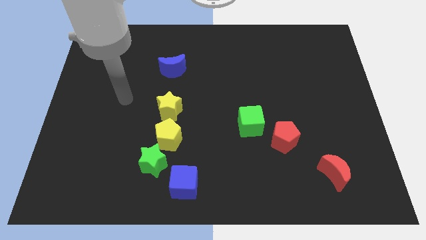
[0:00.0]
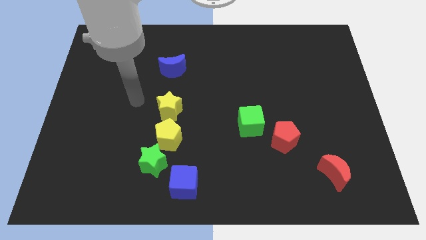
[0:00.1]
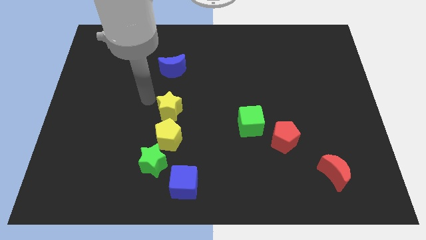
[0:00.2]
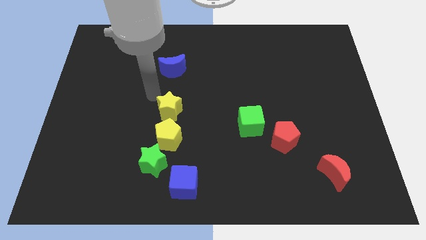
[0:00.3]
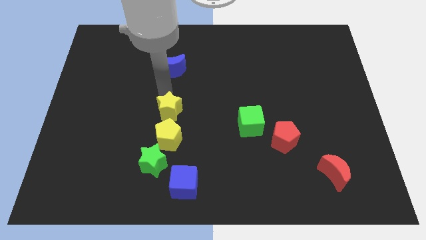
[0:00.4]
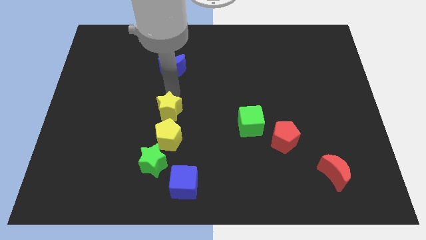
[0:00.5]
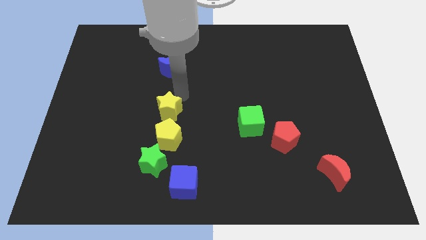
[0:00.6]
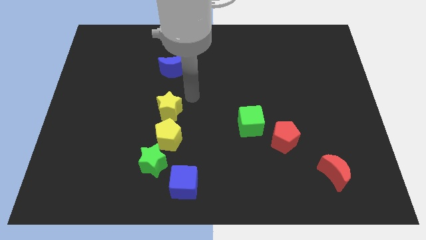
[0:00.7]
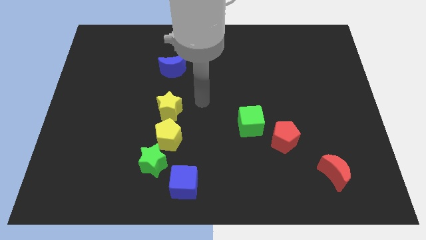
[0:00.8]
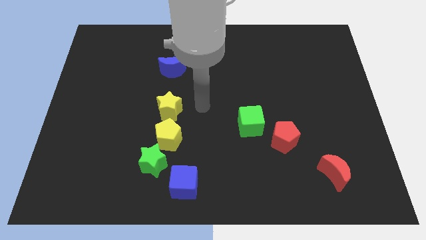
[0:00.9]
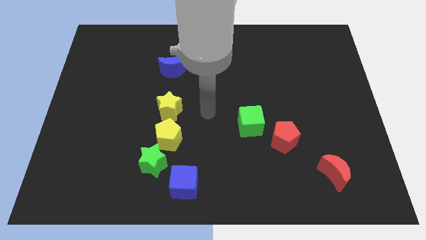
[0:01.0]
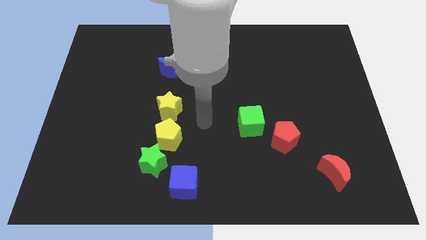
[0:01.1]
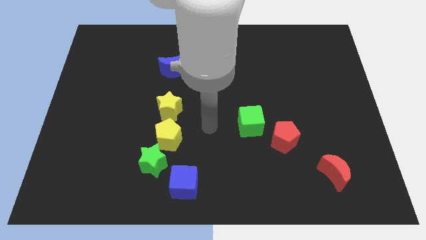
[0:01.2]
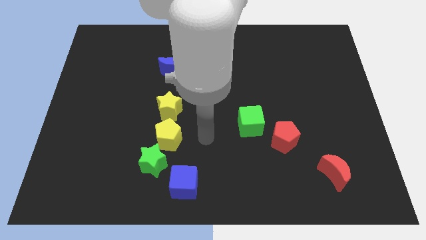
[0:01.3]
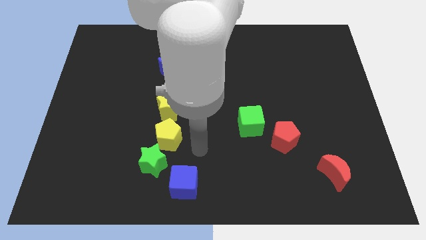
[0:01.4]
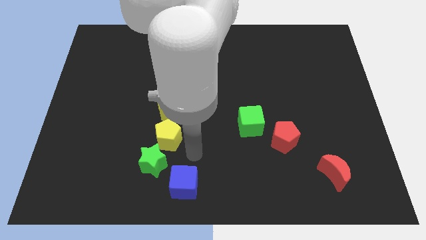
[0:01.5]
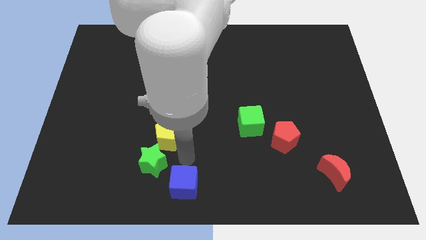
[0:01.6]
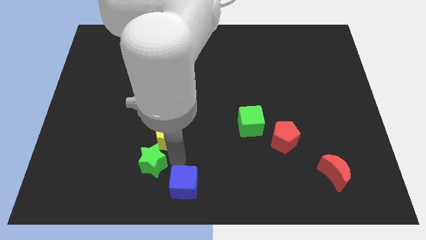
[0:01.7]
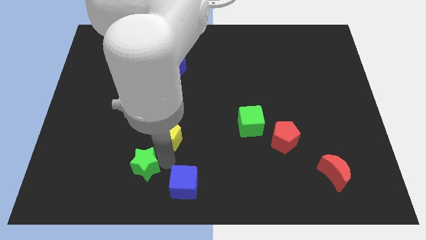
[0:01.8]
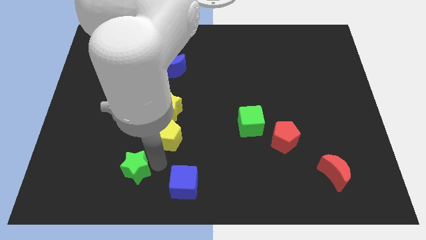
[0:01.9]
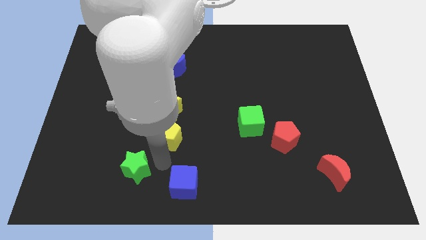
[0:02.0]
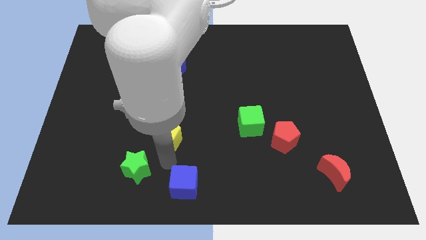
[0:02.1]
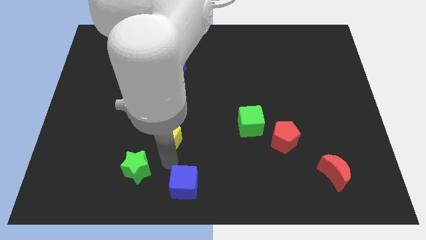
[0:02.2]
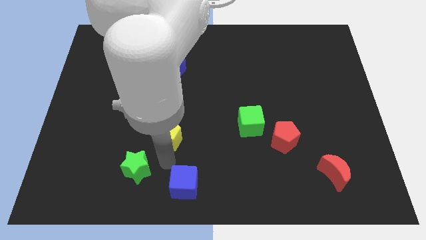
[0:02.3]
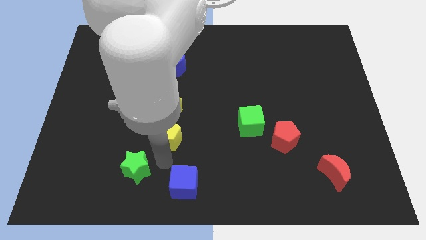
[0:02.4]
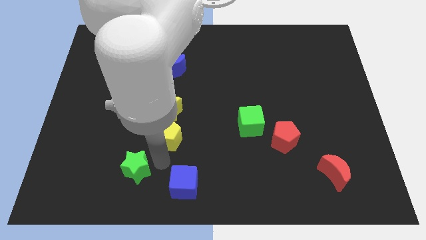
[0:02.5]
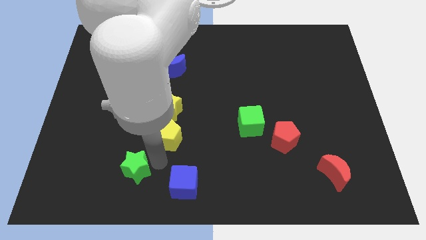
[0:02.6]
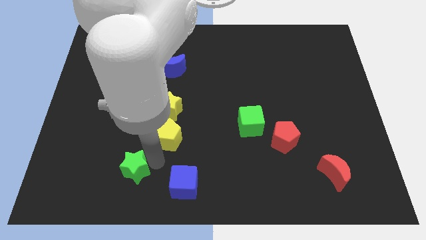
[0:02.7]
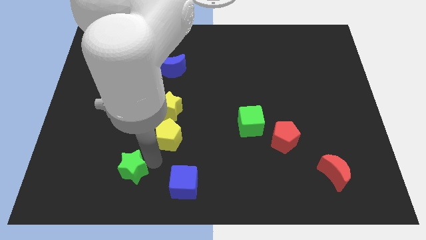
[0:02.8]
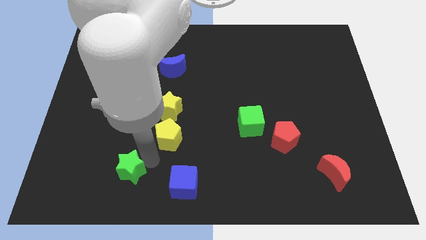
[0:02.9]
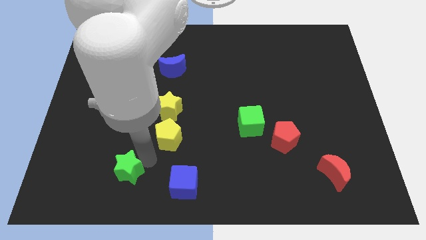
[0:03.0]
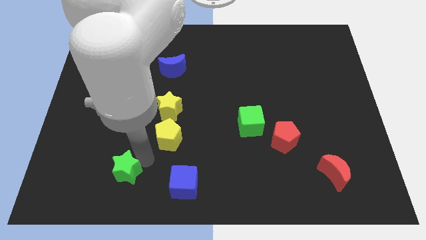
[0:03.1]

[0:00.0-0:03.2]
move the green star away from the yellow pentagon and blue cube

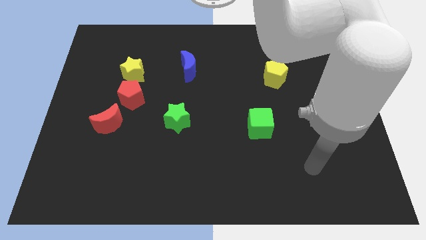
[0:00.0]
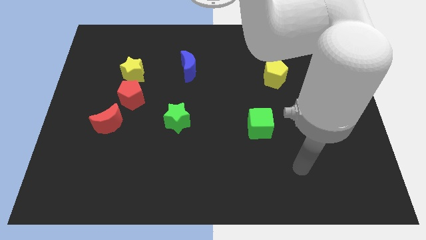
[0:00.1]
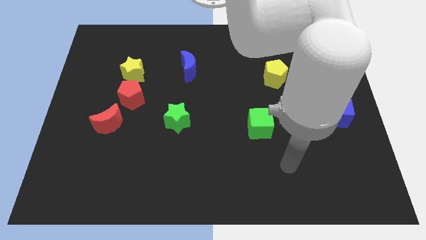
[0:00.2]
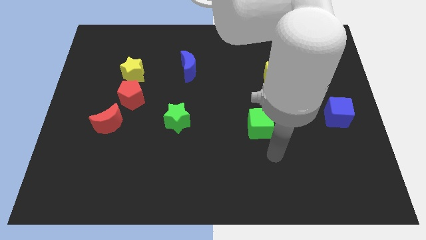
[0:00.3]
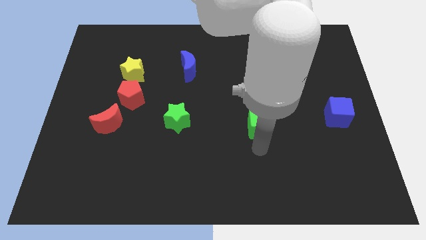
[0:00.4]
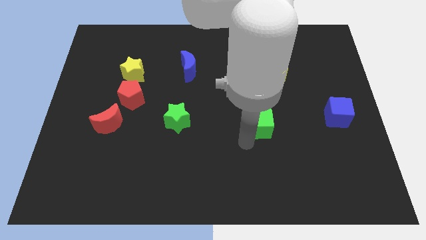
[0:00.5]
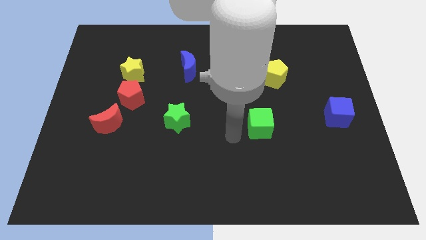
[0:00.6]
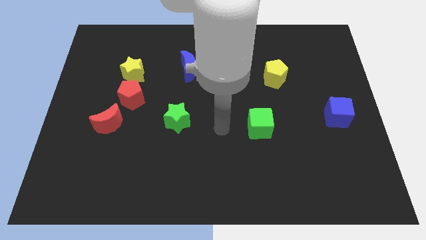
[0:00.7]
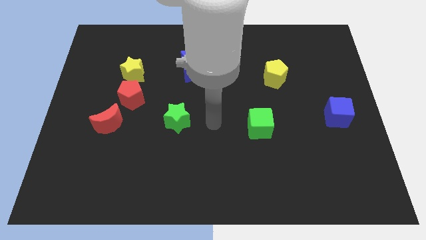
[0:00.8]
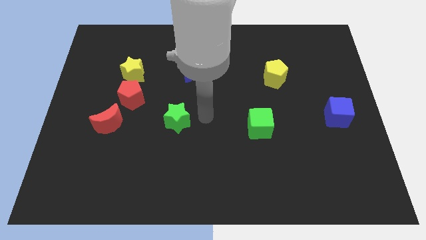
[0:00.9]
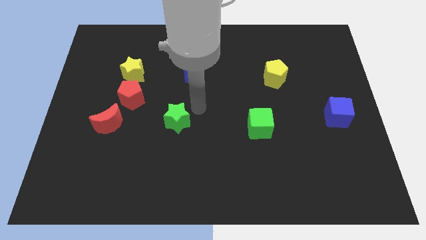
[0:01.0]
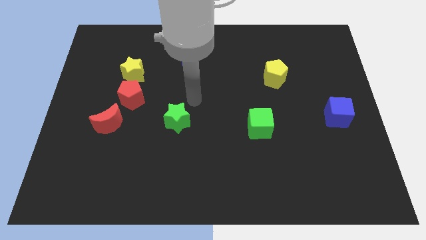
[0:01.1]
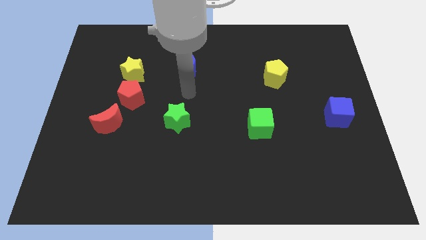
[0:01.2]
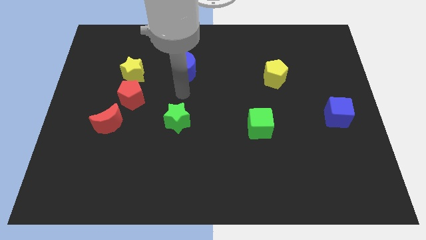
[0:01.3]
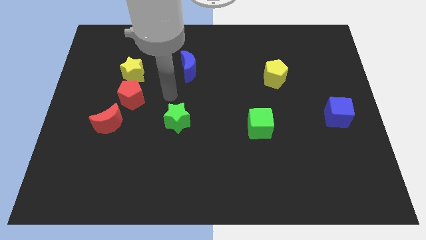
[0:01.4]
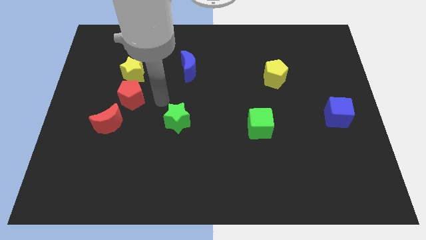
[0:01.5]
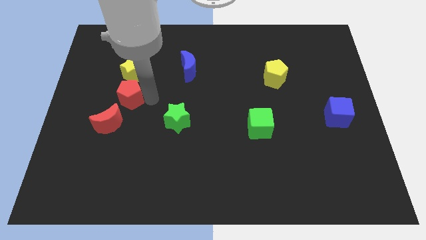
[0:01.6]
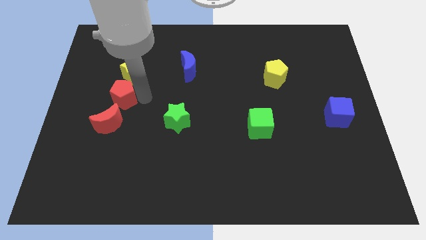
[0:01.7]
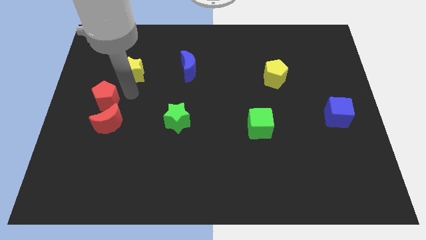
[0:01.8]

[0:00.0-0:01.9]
pull the yellow star apart from the red pentagon

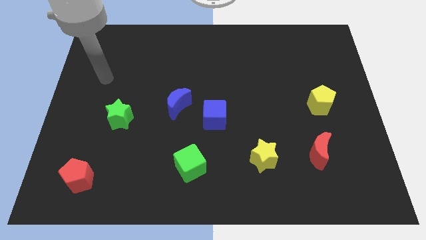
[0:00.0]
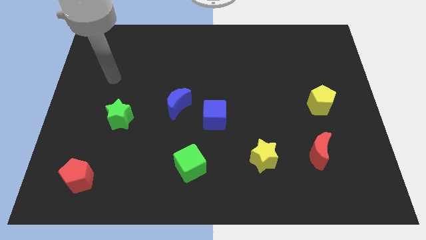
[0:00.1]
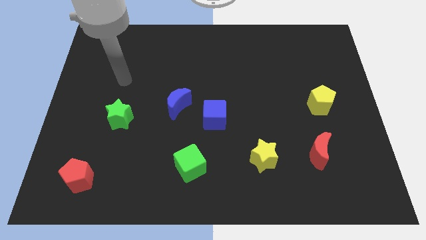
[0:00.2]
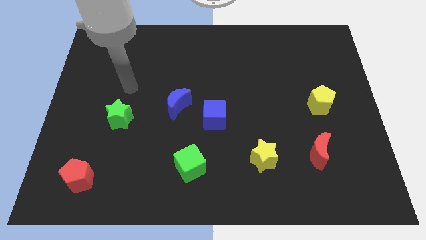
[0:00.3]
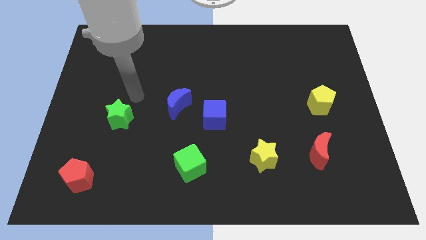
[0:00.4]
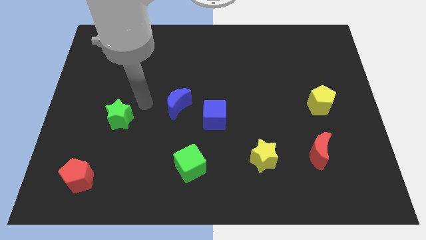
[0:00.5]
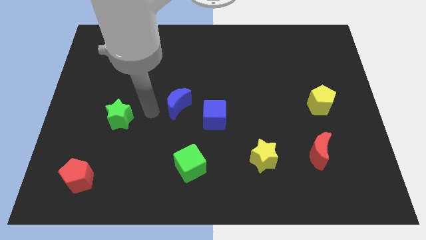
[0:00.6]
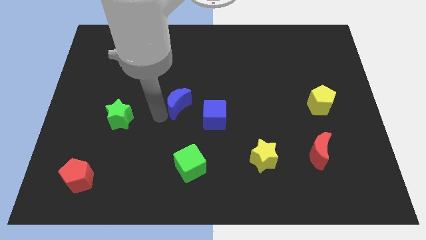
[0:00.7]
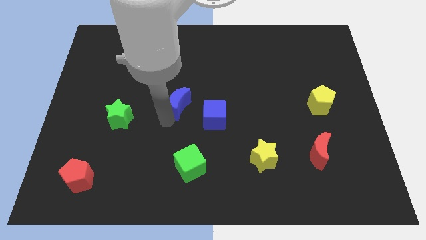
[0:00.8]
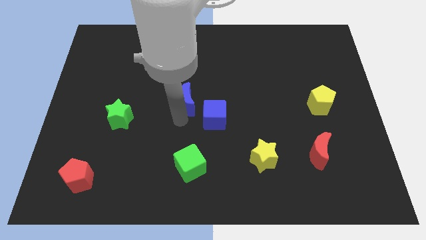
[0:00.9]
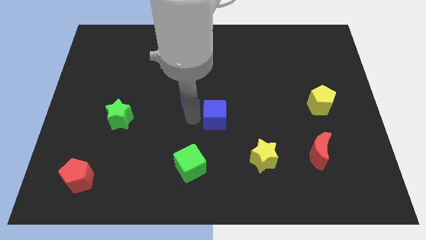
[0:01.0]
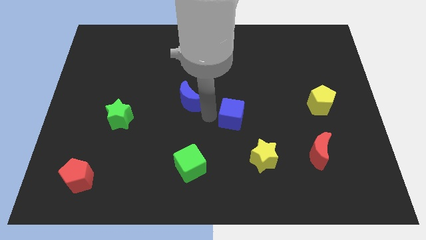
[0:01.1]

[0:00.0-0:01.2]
move the blue moon away from the blue cube

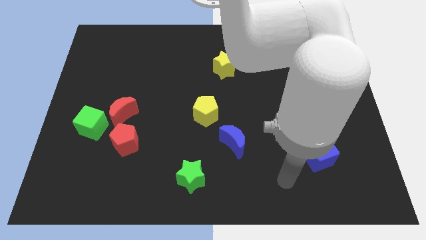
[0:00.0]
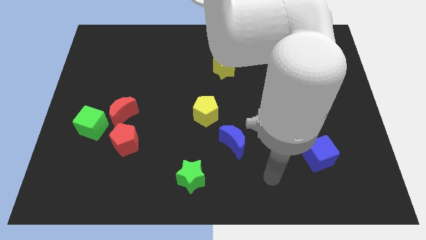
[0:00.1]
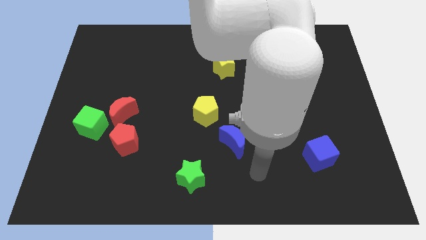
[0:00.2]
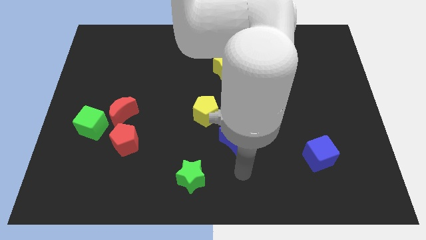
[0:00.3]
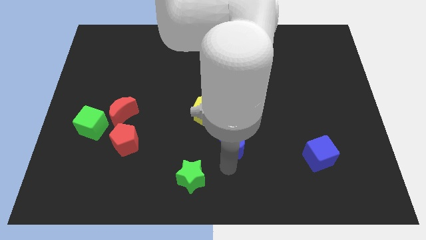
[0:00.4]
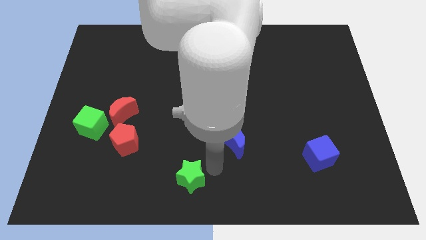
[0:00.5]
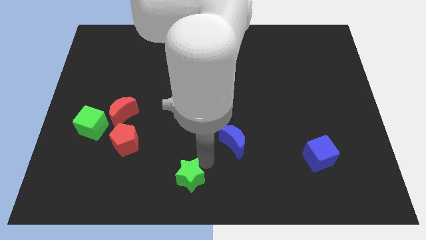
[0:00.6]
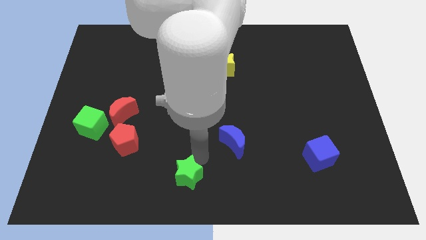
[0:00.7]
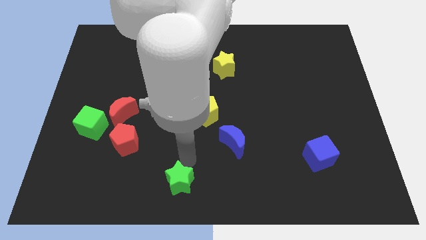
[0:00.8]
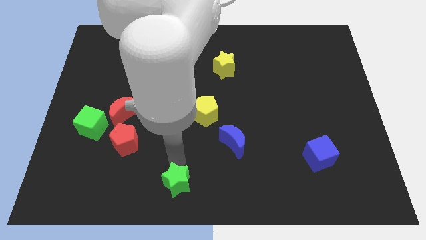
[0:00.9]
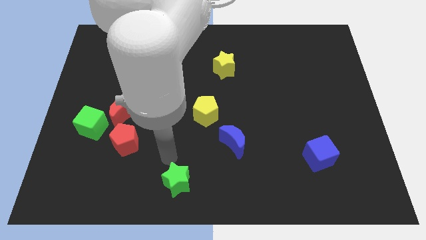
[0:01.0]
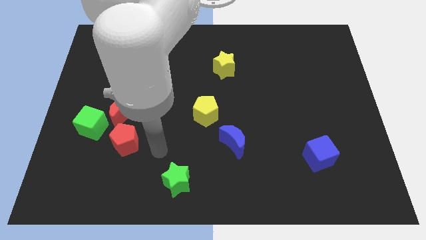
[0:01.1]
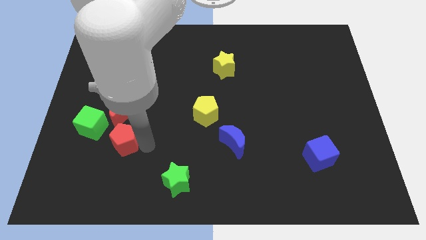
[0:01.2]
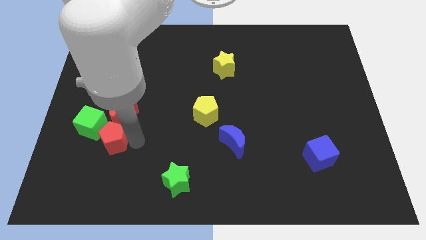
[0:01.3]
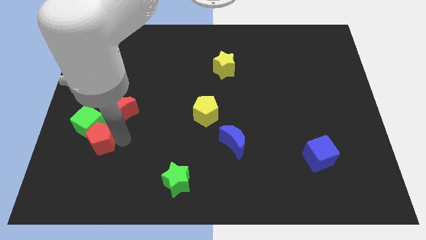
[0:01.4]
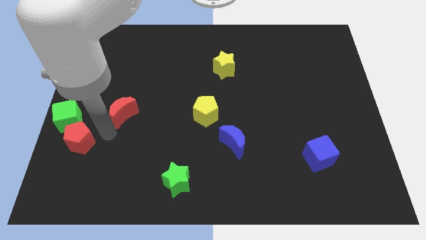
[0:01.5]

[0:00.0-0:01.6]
move the red moon away from the green cube and red pentagon

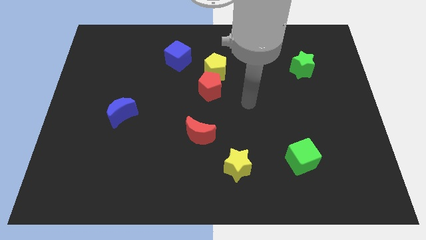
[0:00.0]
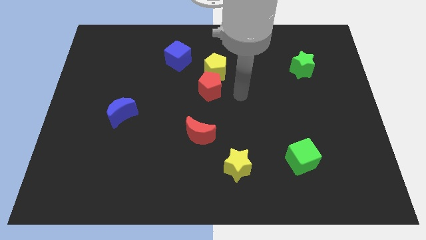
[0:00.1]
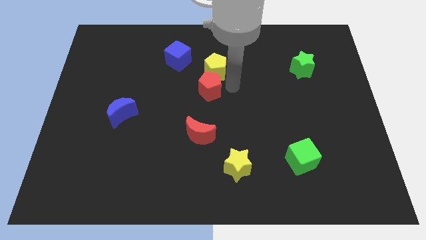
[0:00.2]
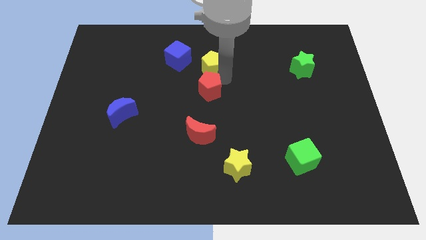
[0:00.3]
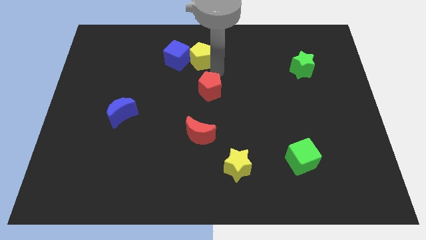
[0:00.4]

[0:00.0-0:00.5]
separate the red pentagon from the yellow pentagon

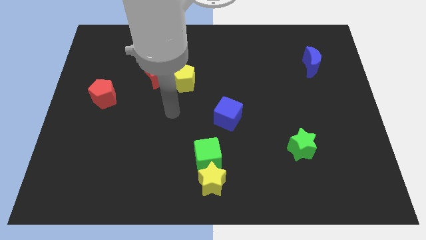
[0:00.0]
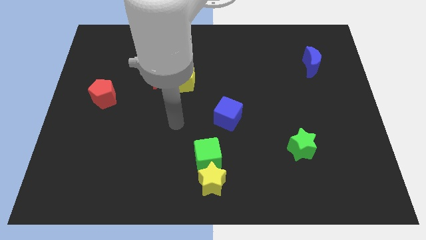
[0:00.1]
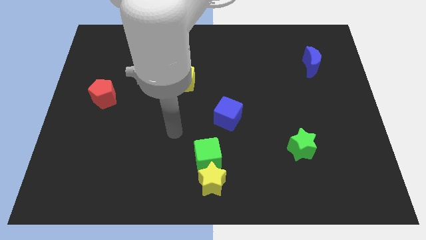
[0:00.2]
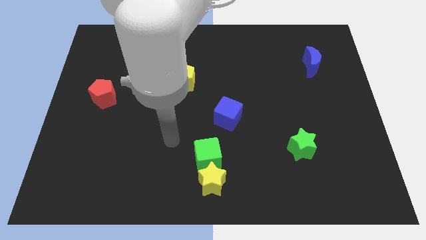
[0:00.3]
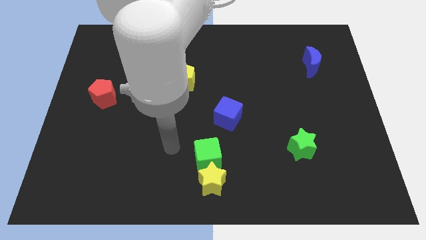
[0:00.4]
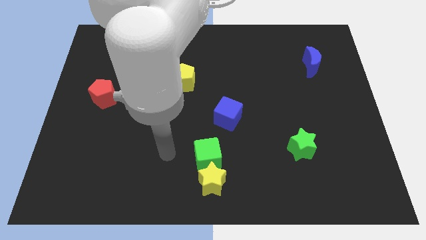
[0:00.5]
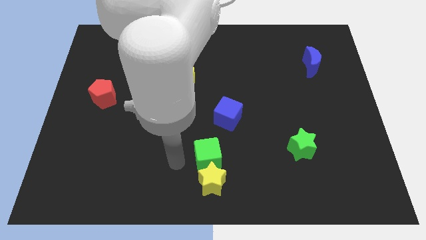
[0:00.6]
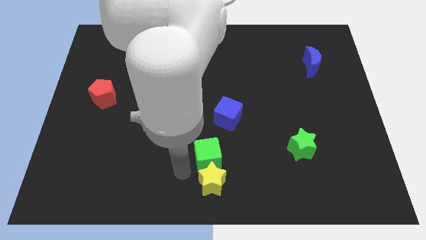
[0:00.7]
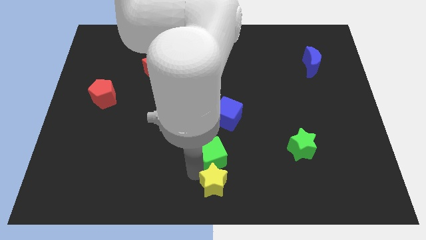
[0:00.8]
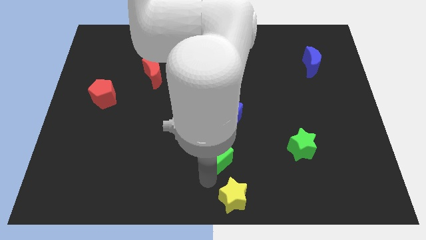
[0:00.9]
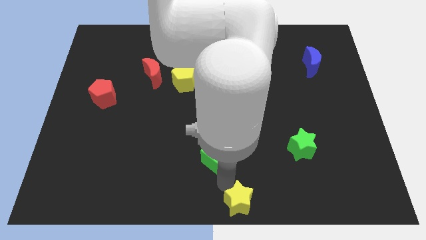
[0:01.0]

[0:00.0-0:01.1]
pull the green cube apart from the yellow star
